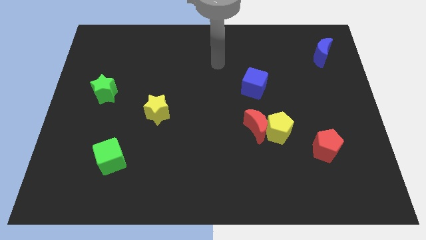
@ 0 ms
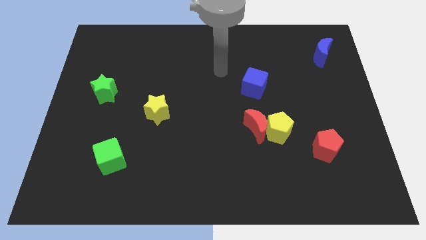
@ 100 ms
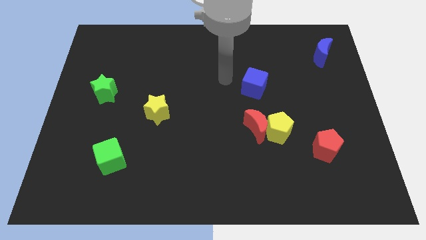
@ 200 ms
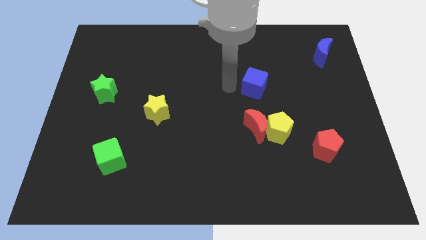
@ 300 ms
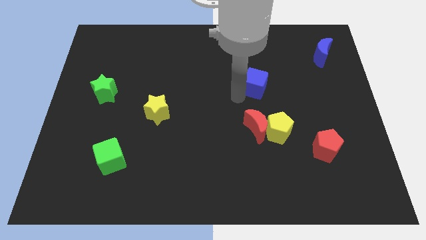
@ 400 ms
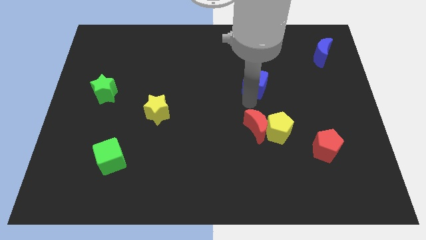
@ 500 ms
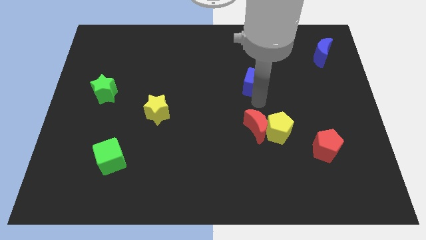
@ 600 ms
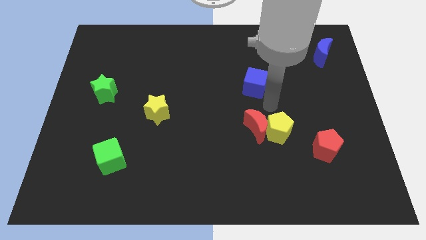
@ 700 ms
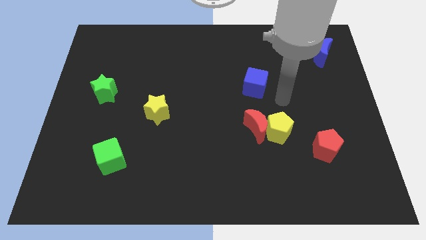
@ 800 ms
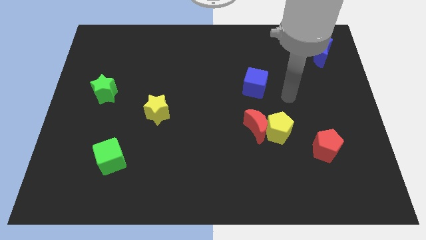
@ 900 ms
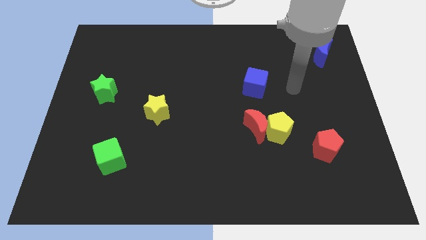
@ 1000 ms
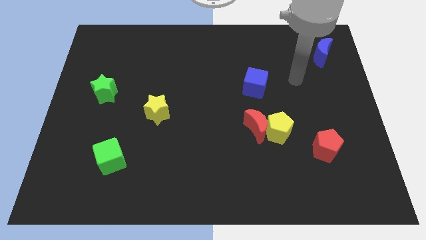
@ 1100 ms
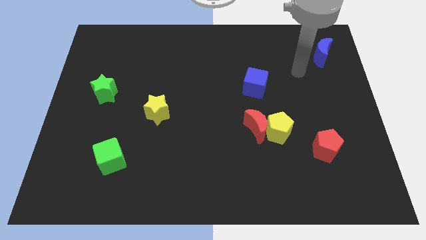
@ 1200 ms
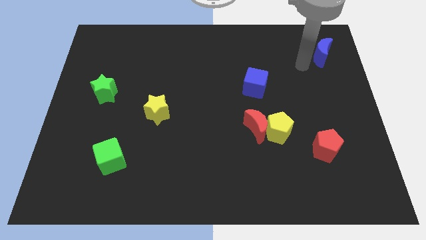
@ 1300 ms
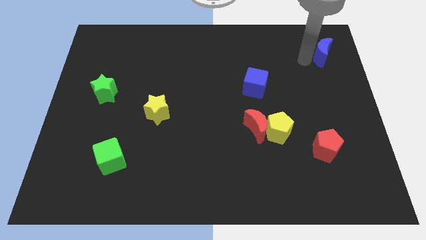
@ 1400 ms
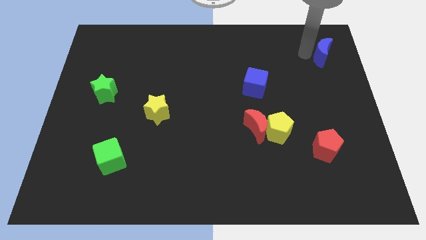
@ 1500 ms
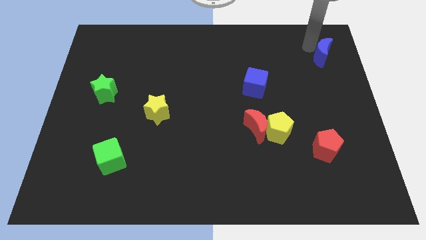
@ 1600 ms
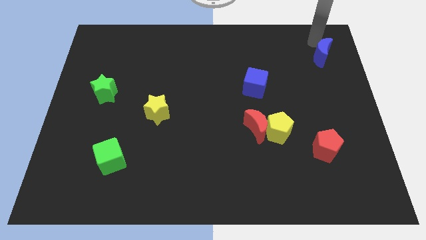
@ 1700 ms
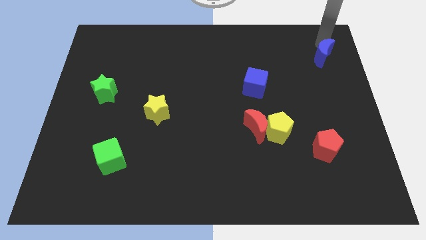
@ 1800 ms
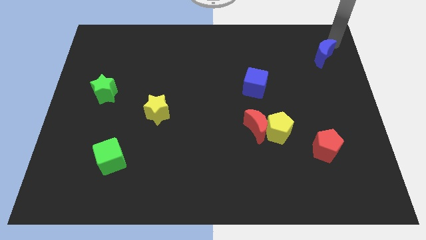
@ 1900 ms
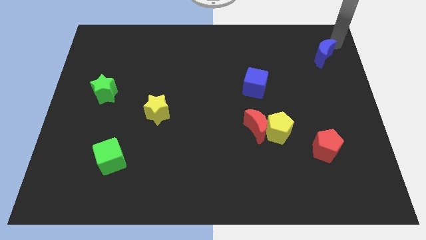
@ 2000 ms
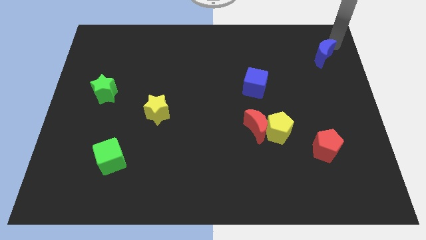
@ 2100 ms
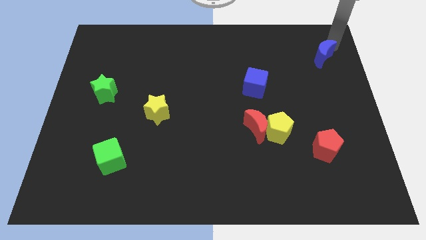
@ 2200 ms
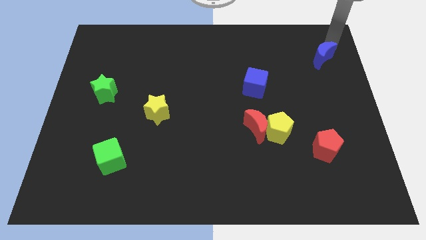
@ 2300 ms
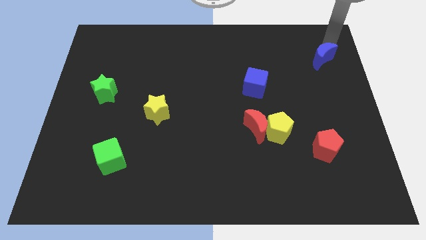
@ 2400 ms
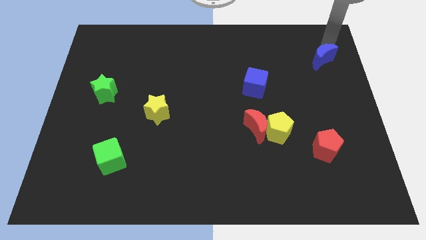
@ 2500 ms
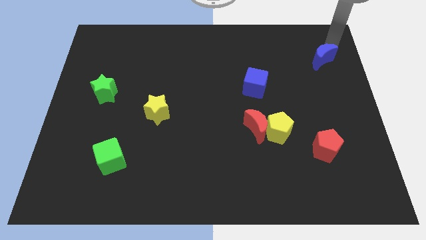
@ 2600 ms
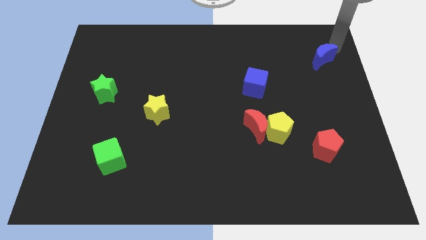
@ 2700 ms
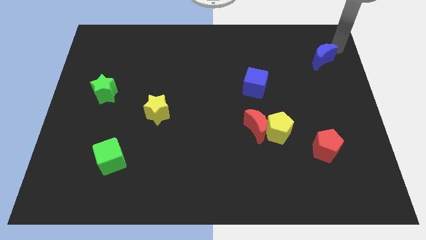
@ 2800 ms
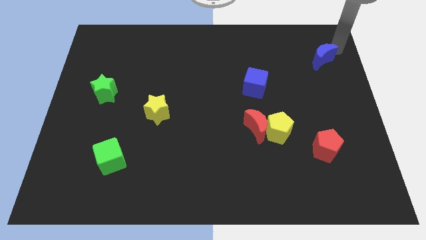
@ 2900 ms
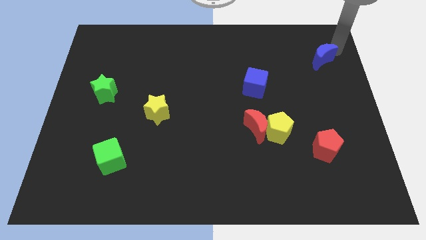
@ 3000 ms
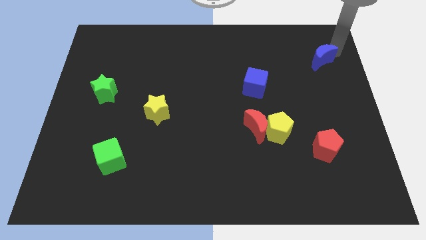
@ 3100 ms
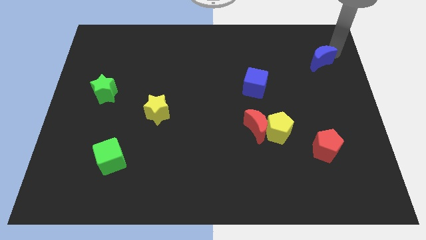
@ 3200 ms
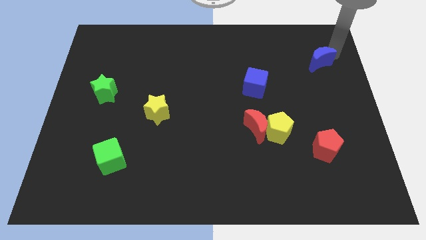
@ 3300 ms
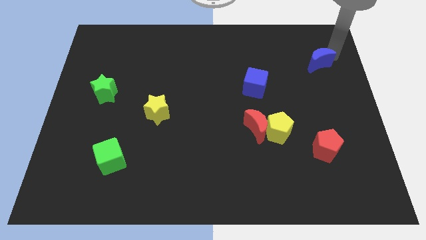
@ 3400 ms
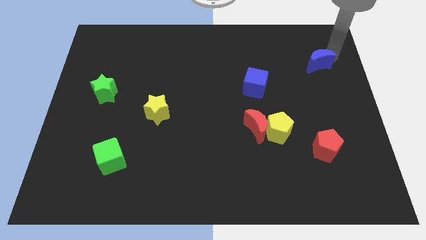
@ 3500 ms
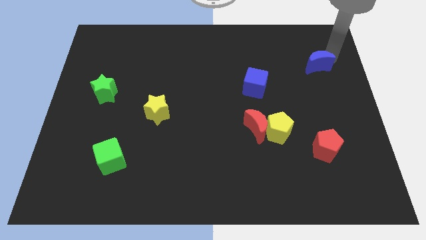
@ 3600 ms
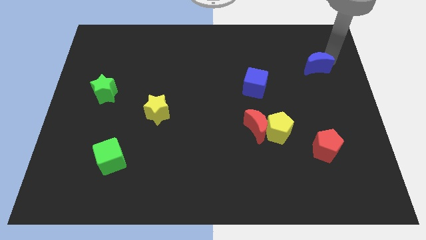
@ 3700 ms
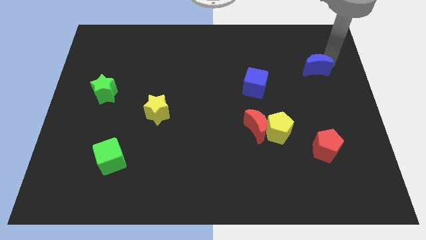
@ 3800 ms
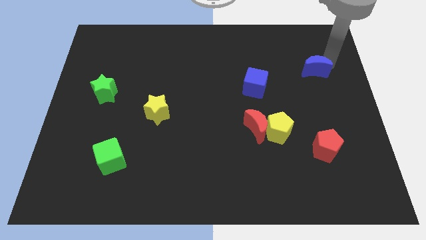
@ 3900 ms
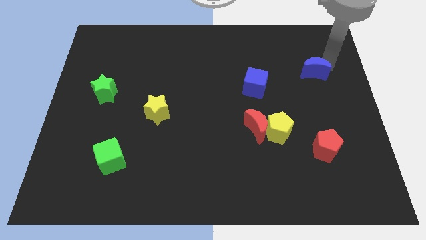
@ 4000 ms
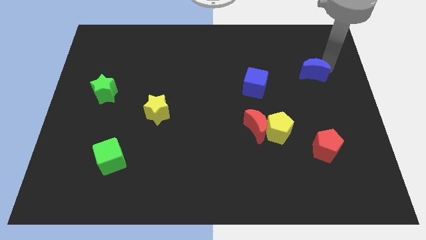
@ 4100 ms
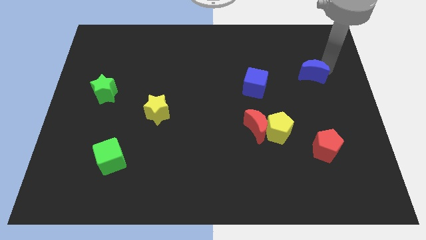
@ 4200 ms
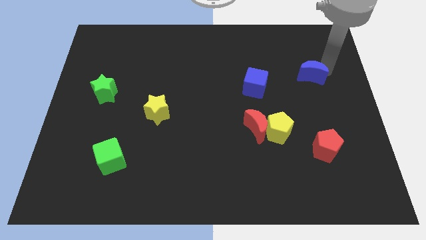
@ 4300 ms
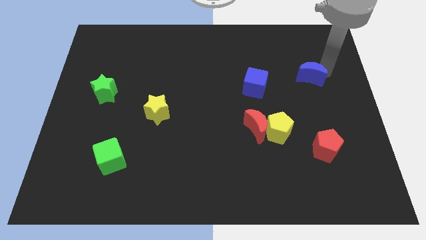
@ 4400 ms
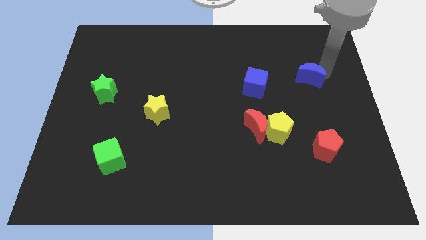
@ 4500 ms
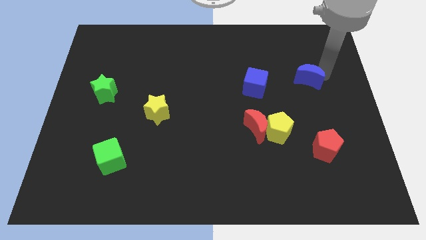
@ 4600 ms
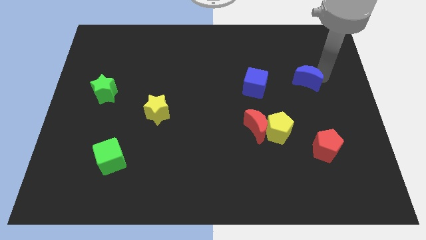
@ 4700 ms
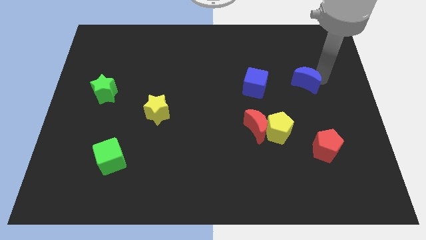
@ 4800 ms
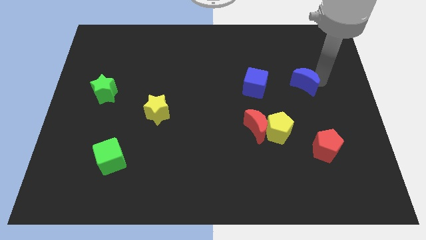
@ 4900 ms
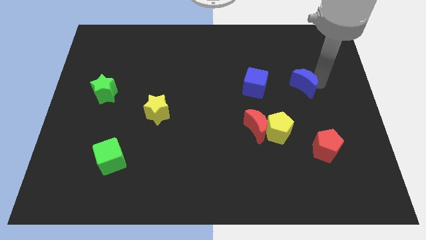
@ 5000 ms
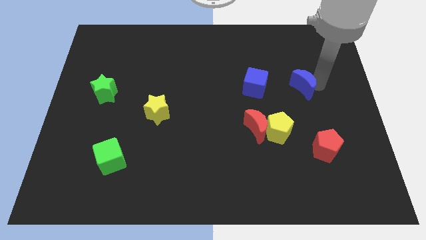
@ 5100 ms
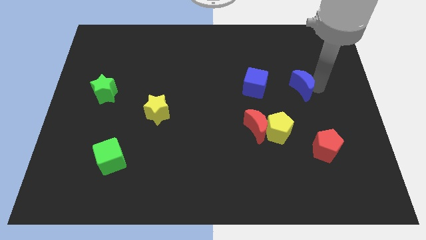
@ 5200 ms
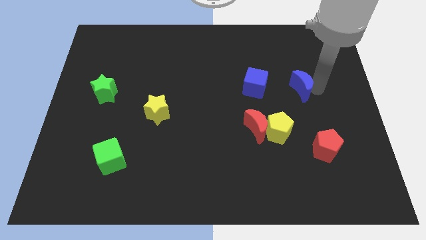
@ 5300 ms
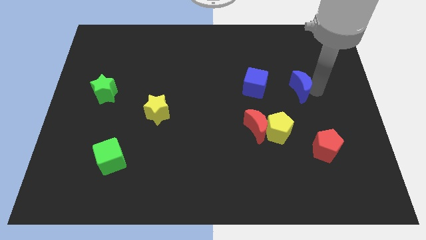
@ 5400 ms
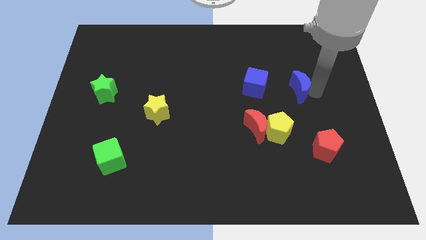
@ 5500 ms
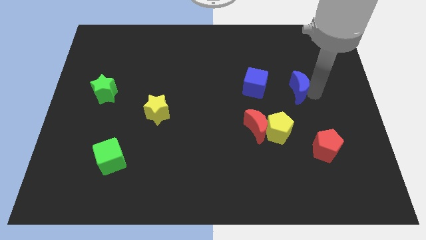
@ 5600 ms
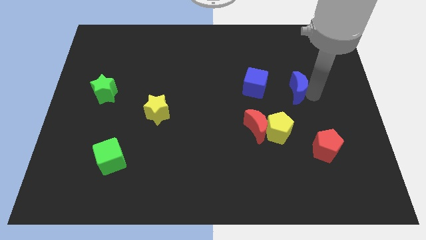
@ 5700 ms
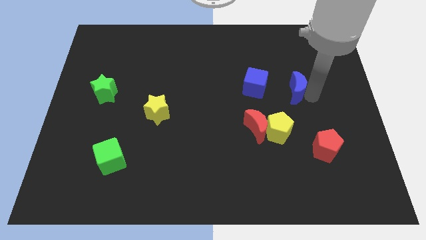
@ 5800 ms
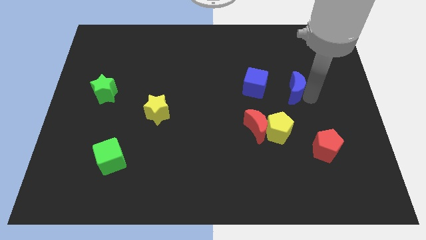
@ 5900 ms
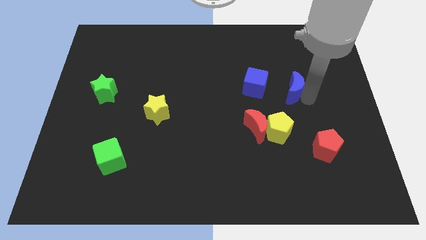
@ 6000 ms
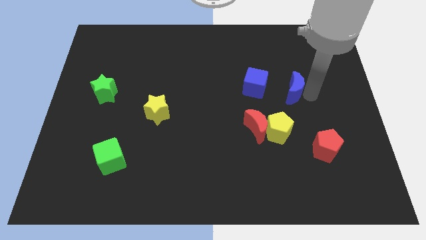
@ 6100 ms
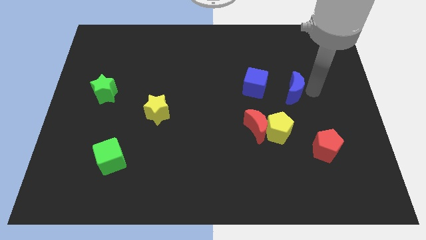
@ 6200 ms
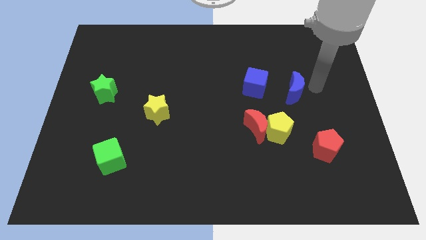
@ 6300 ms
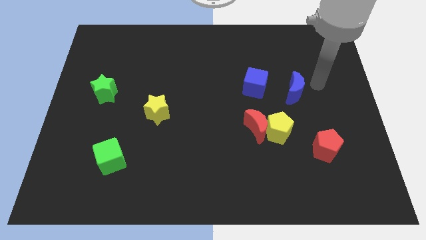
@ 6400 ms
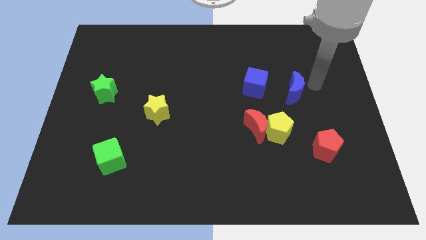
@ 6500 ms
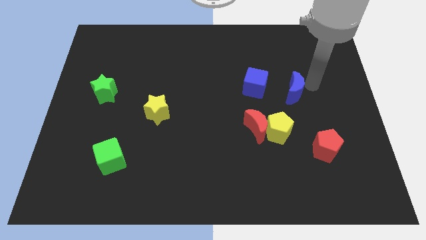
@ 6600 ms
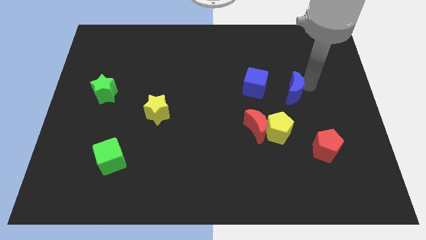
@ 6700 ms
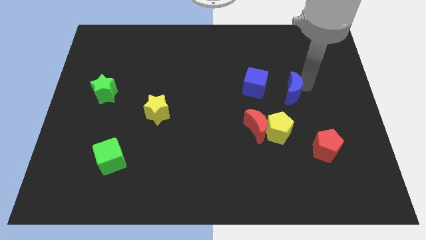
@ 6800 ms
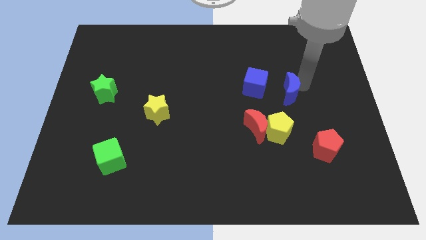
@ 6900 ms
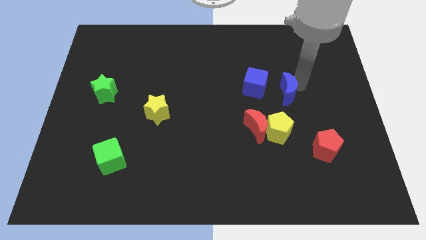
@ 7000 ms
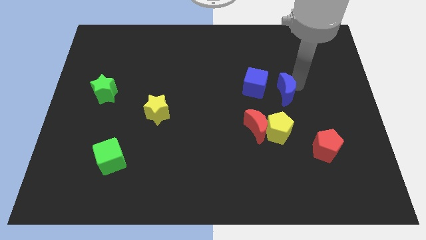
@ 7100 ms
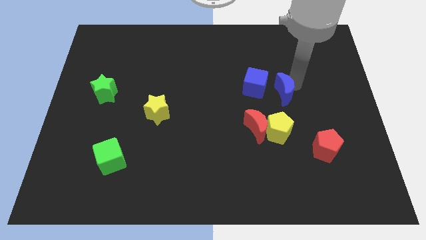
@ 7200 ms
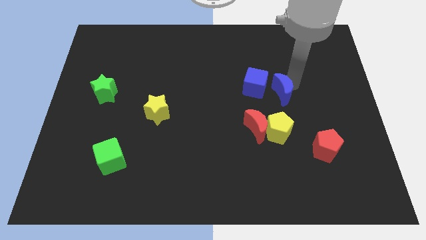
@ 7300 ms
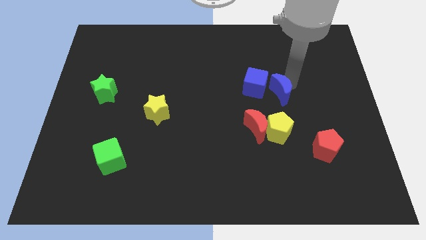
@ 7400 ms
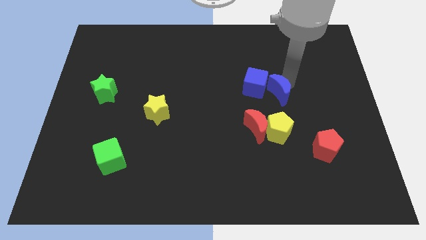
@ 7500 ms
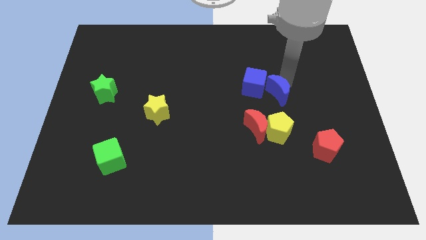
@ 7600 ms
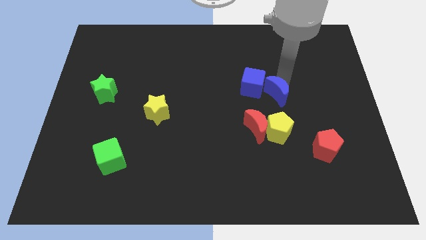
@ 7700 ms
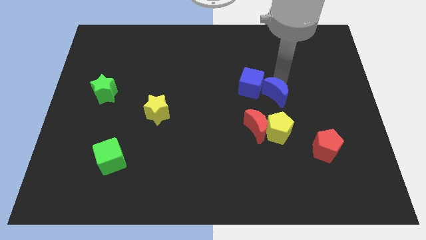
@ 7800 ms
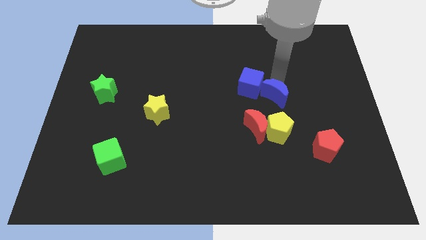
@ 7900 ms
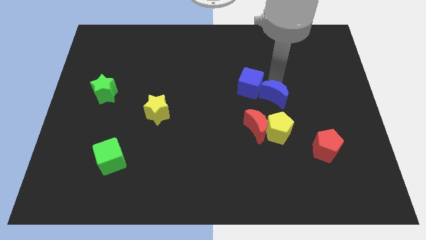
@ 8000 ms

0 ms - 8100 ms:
slide the blue moon downwards and to the left diagonally
